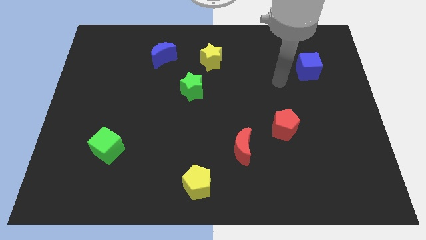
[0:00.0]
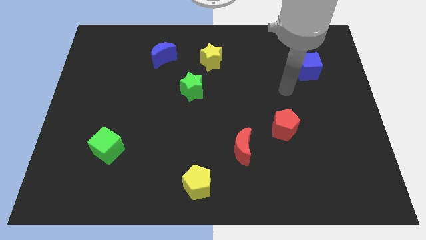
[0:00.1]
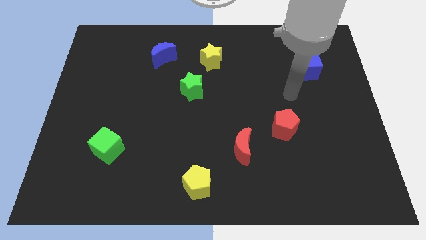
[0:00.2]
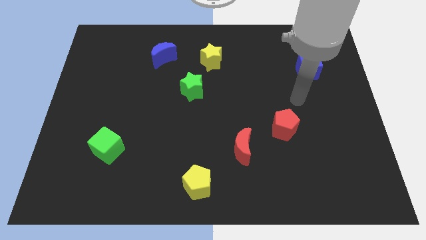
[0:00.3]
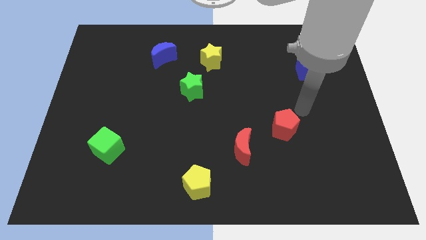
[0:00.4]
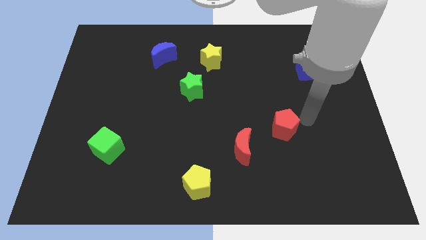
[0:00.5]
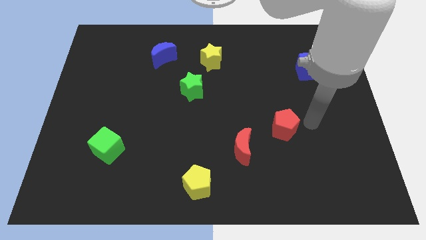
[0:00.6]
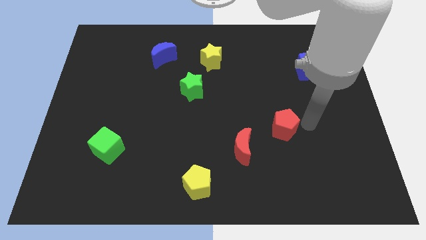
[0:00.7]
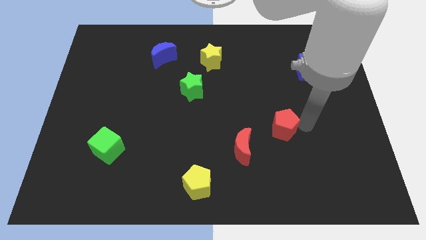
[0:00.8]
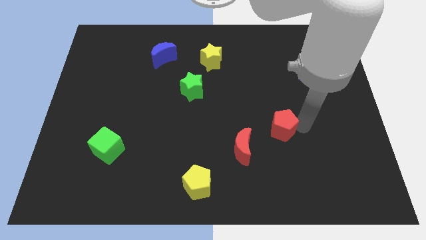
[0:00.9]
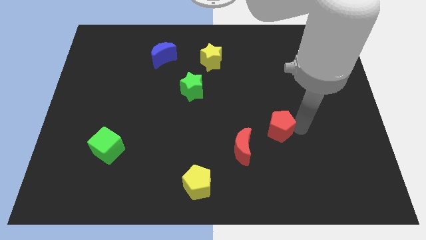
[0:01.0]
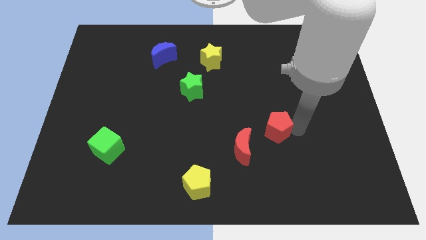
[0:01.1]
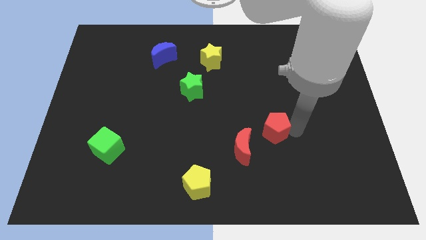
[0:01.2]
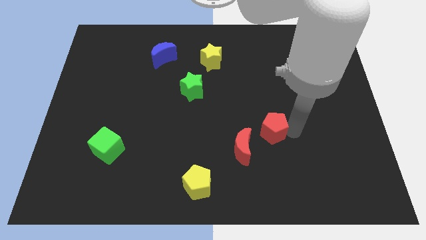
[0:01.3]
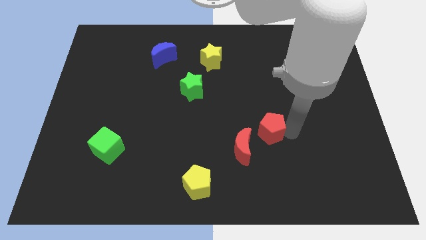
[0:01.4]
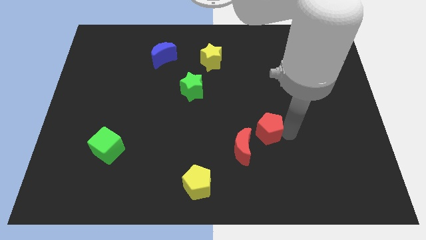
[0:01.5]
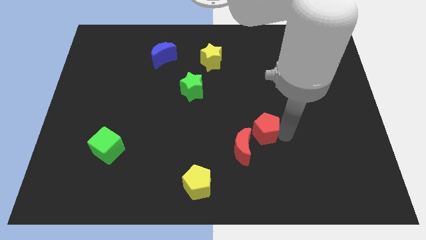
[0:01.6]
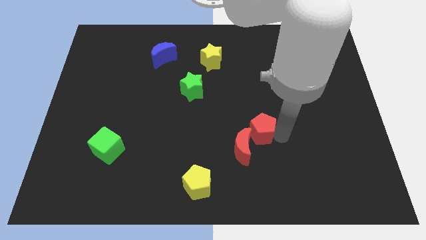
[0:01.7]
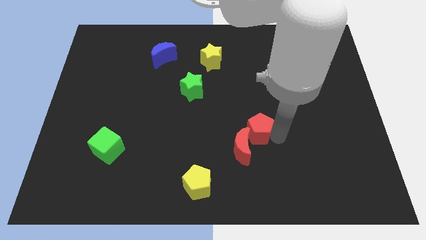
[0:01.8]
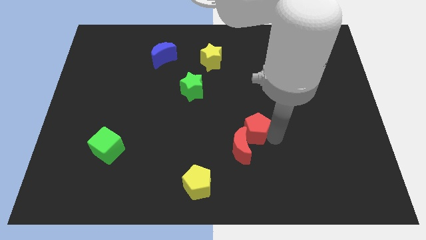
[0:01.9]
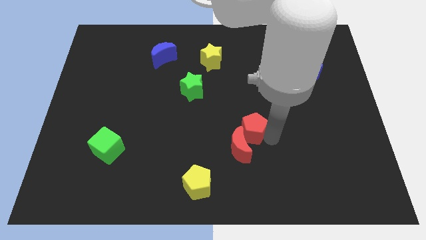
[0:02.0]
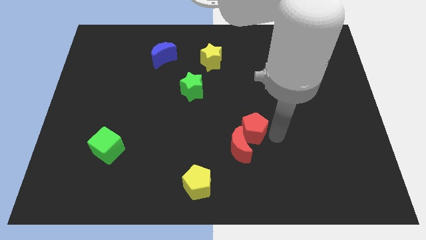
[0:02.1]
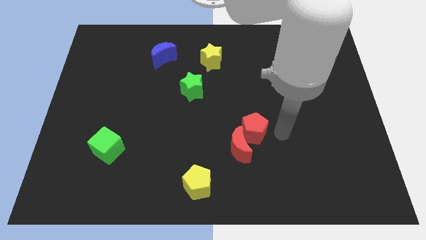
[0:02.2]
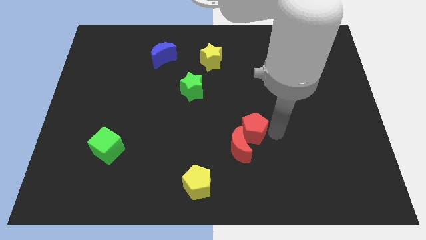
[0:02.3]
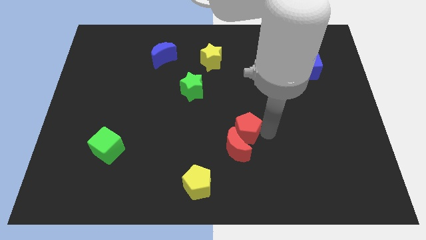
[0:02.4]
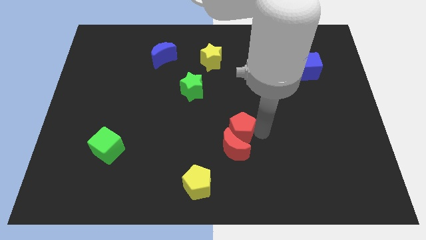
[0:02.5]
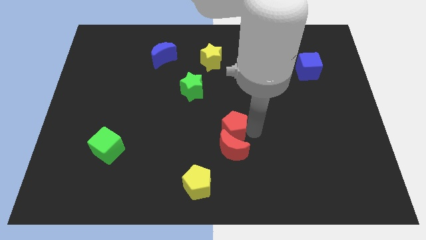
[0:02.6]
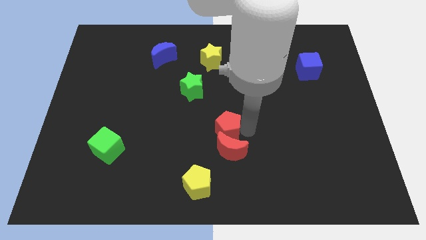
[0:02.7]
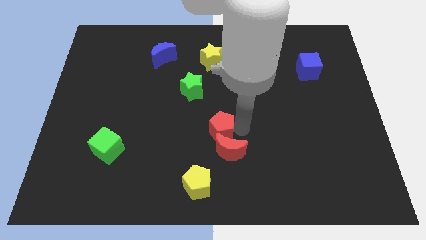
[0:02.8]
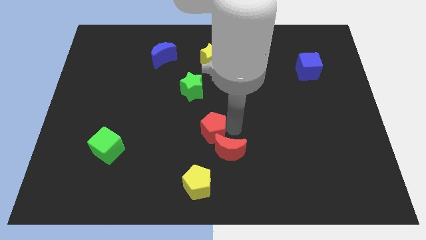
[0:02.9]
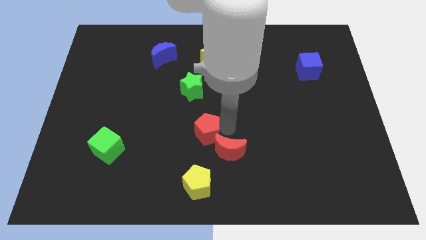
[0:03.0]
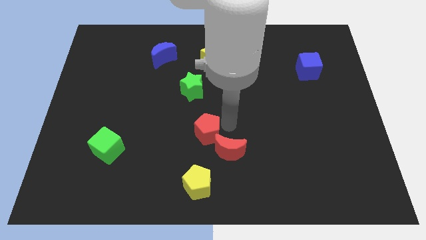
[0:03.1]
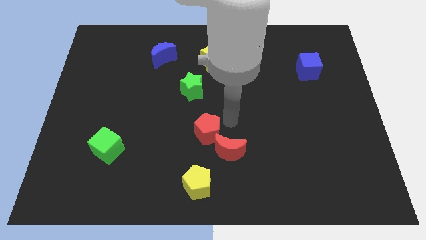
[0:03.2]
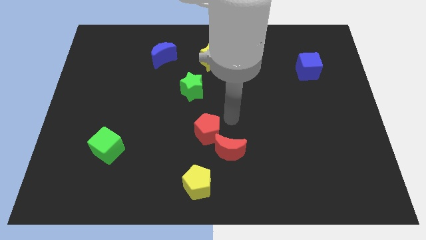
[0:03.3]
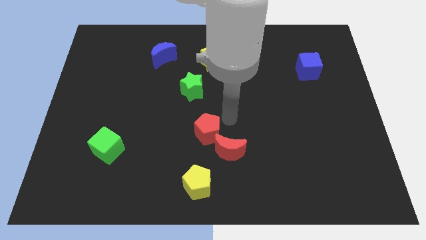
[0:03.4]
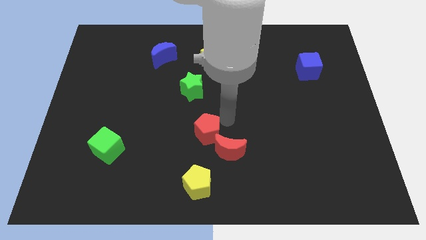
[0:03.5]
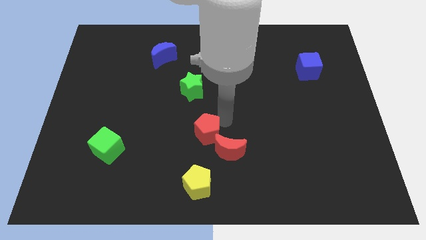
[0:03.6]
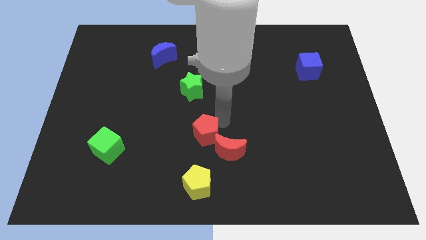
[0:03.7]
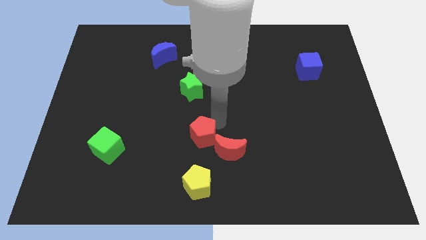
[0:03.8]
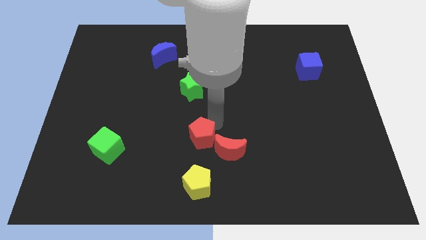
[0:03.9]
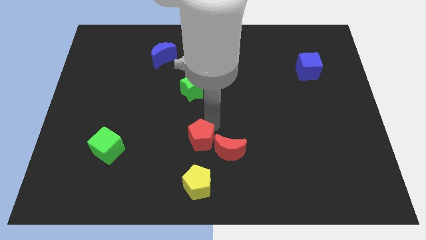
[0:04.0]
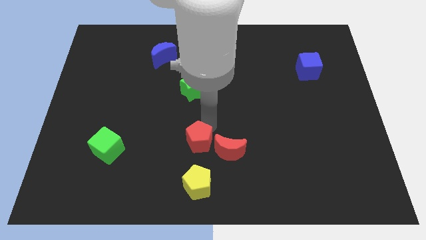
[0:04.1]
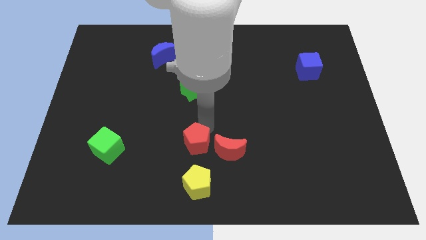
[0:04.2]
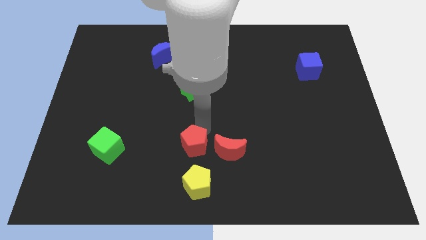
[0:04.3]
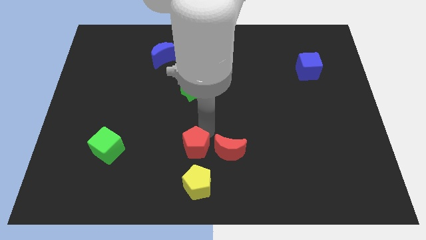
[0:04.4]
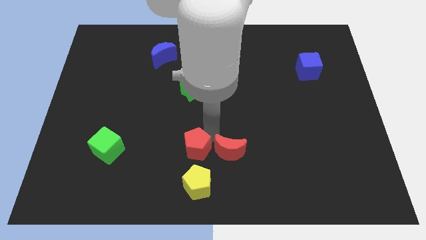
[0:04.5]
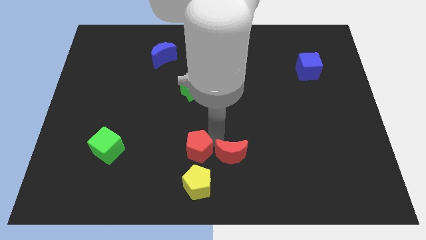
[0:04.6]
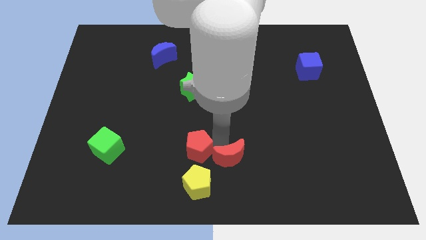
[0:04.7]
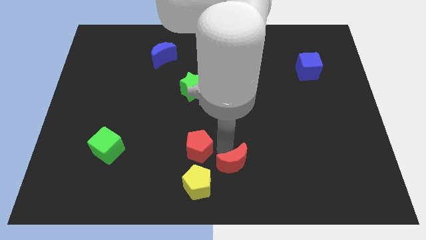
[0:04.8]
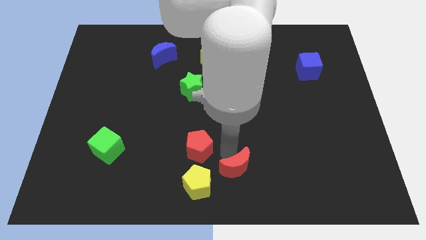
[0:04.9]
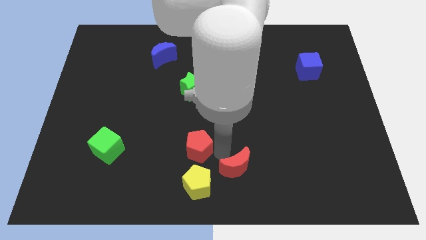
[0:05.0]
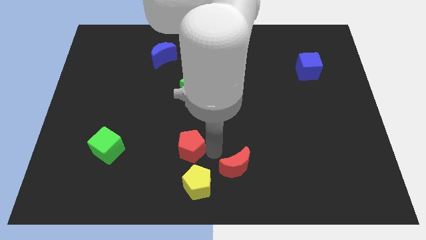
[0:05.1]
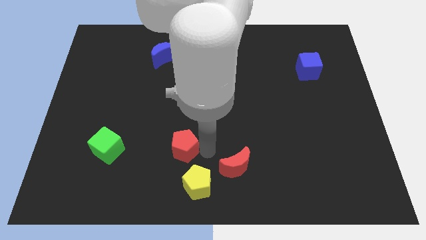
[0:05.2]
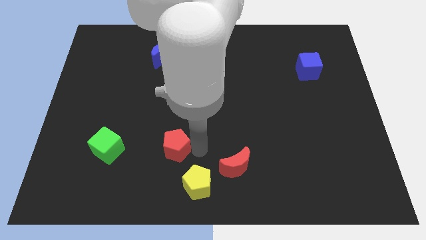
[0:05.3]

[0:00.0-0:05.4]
push the red pentagon to the right of the green cube

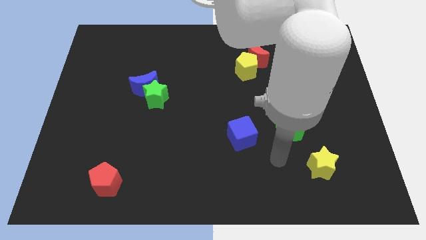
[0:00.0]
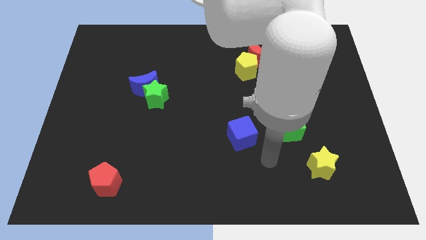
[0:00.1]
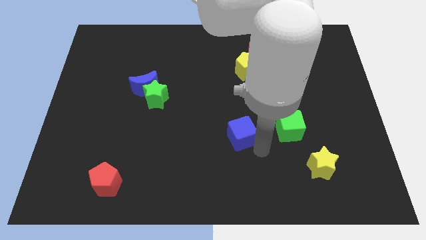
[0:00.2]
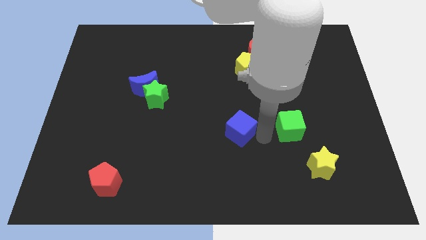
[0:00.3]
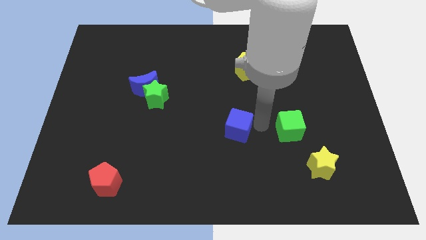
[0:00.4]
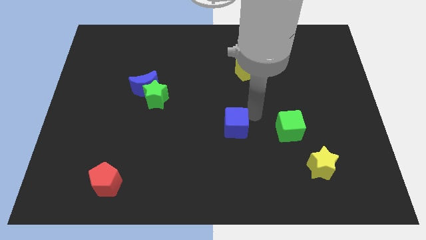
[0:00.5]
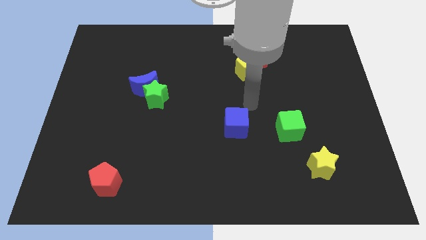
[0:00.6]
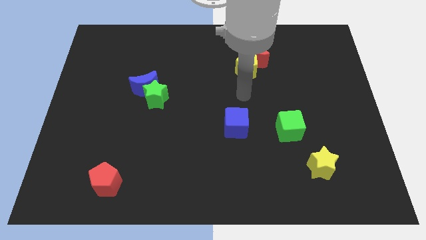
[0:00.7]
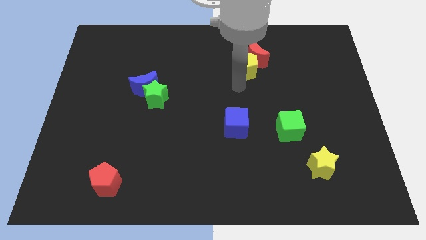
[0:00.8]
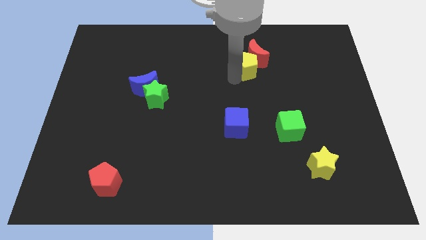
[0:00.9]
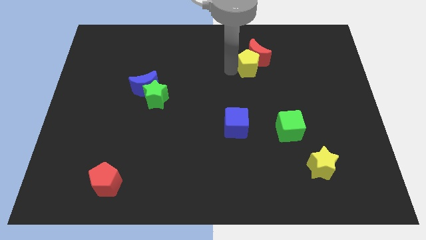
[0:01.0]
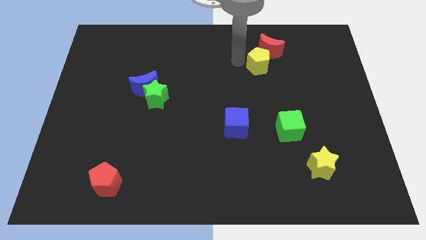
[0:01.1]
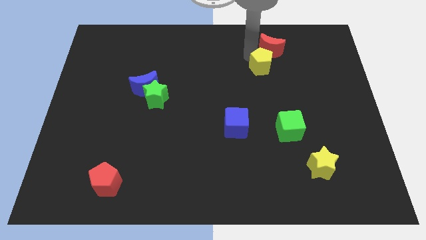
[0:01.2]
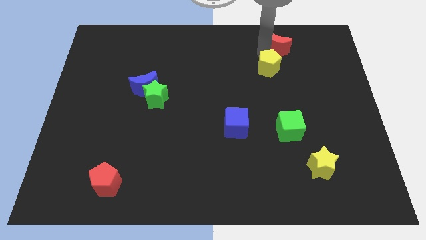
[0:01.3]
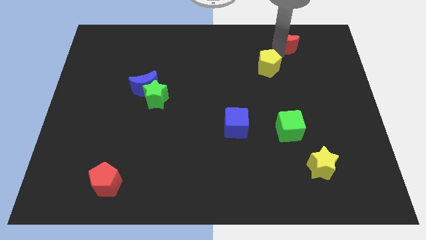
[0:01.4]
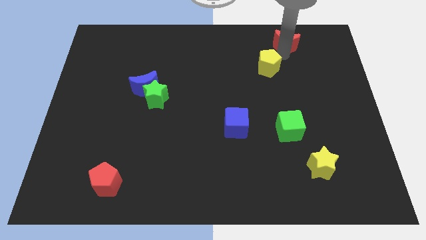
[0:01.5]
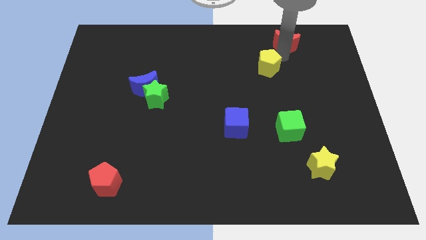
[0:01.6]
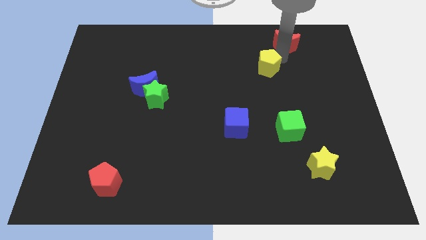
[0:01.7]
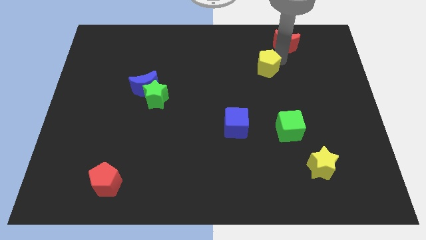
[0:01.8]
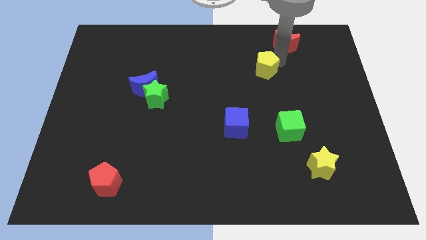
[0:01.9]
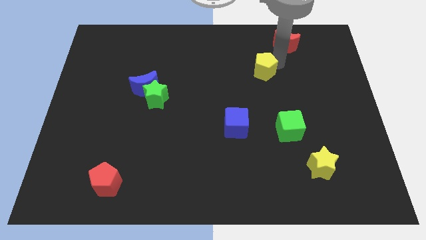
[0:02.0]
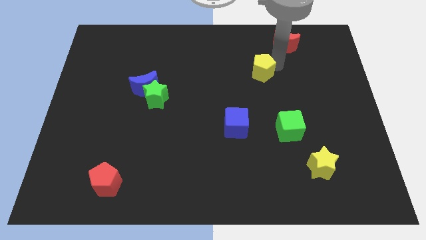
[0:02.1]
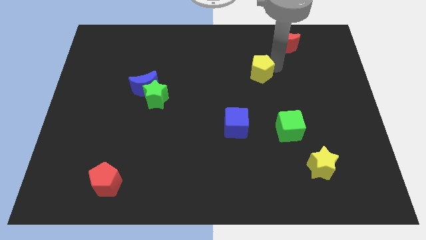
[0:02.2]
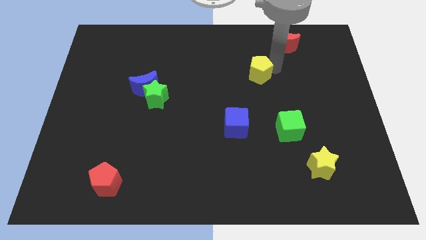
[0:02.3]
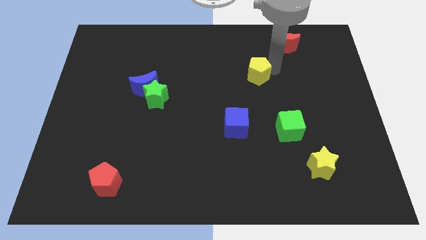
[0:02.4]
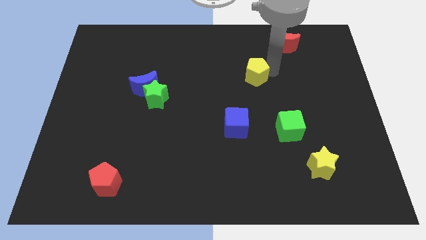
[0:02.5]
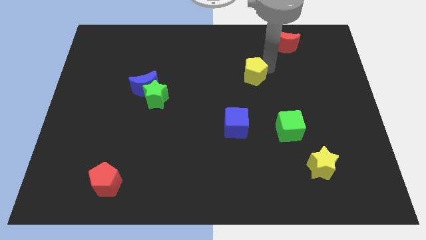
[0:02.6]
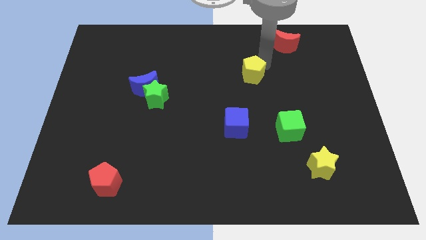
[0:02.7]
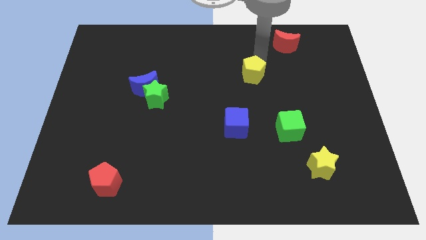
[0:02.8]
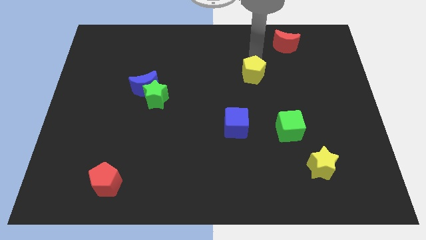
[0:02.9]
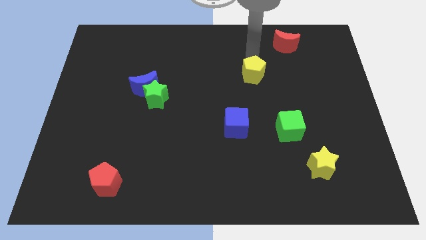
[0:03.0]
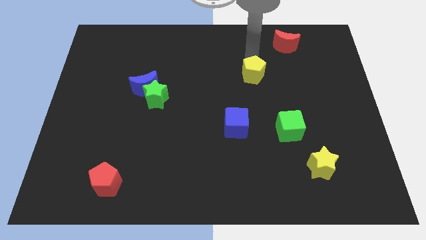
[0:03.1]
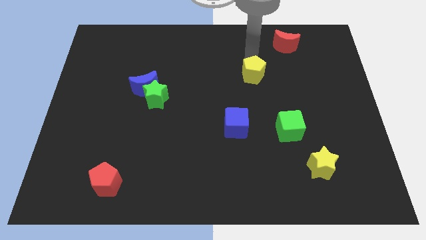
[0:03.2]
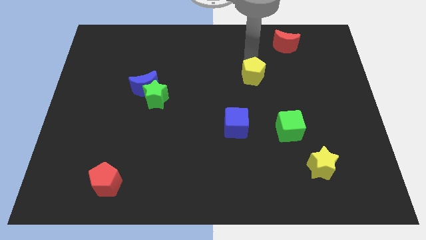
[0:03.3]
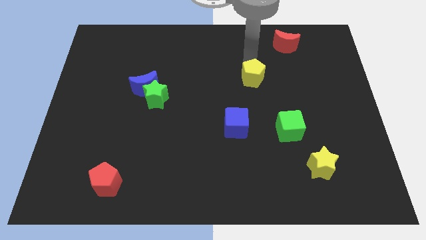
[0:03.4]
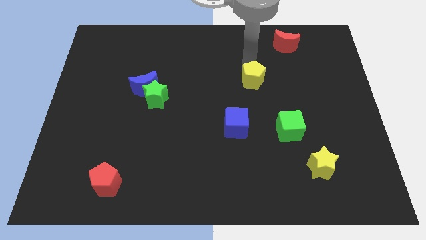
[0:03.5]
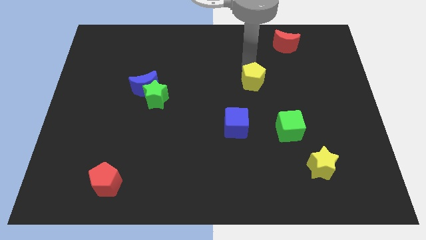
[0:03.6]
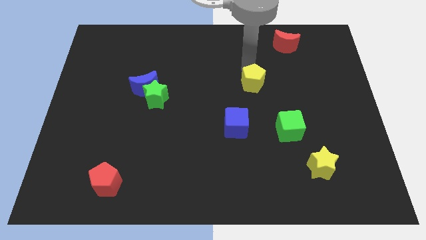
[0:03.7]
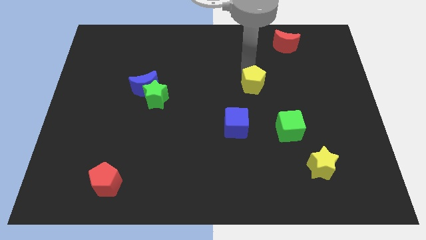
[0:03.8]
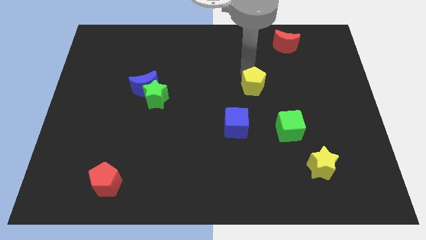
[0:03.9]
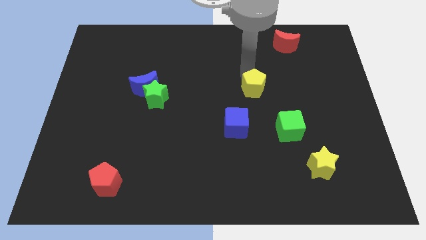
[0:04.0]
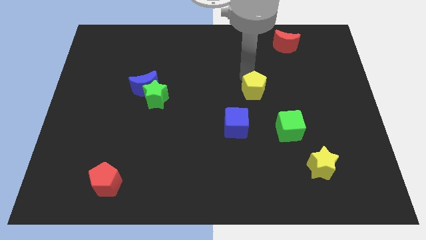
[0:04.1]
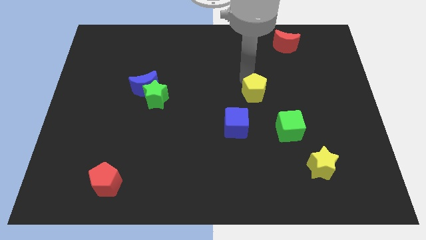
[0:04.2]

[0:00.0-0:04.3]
push the yellow pentagon to the top right side of the blue cube
